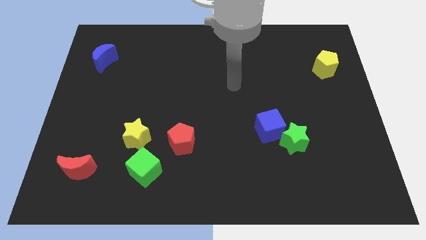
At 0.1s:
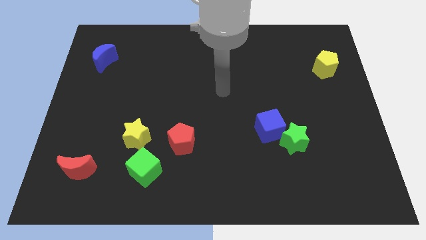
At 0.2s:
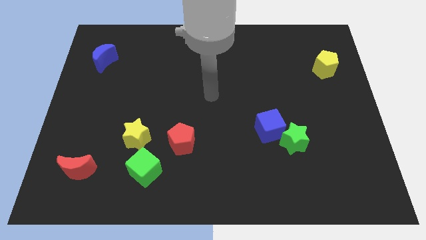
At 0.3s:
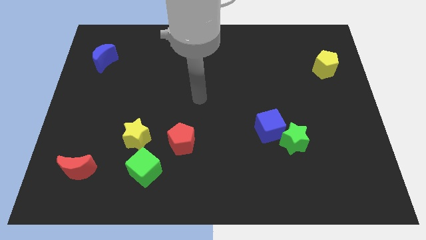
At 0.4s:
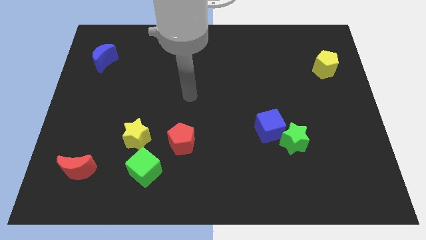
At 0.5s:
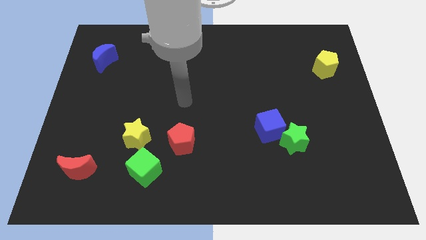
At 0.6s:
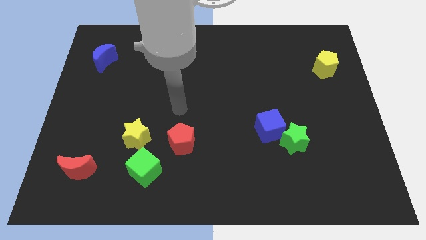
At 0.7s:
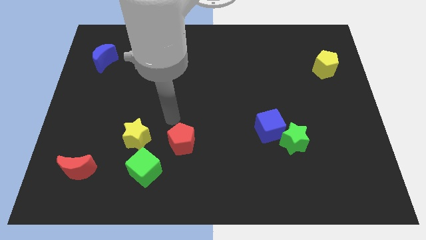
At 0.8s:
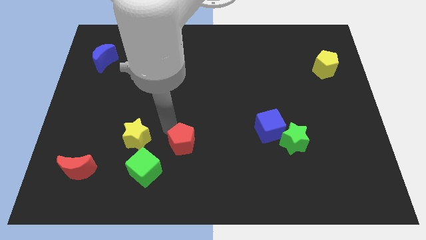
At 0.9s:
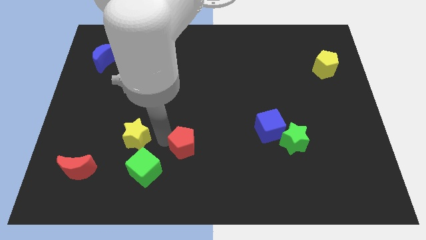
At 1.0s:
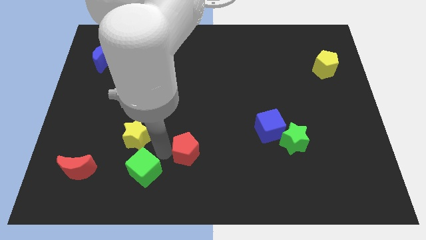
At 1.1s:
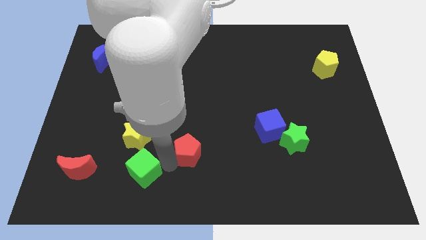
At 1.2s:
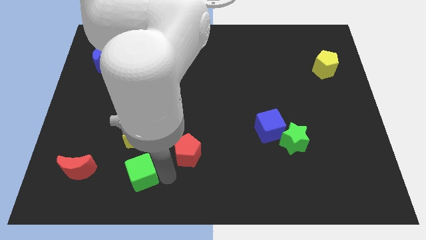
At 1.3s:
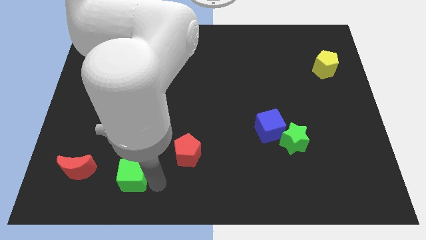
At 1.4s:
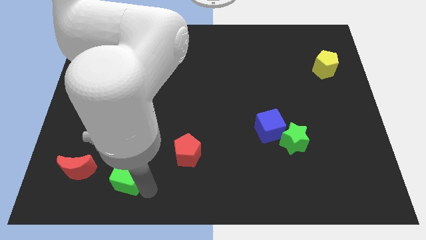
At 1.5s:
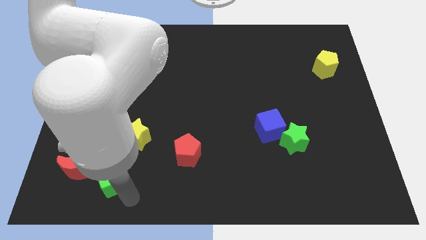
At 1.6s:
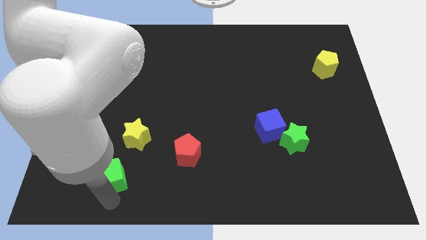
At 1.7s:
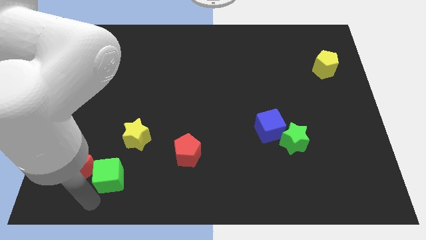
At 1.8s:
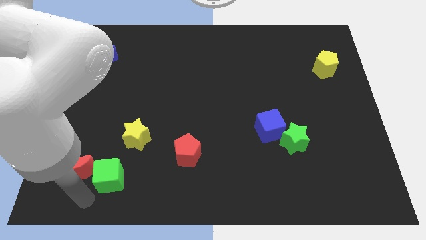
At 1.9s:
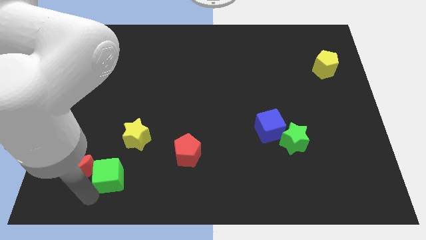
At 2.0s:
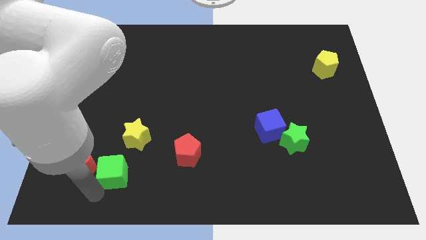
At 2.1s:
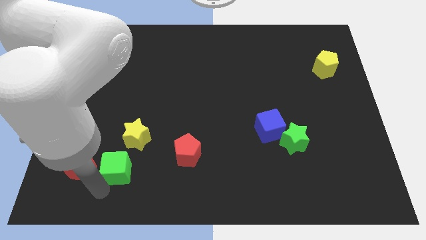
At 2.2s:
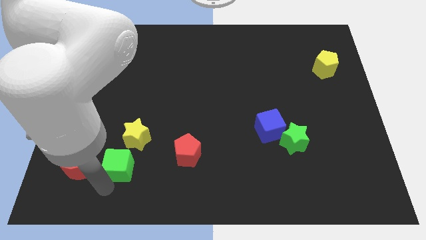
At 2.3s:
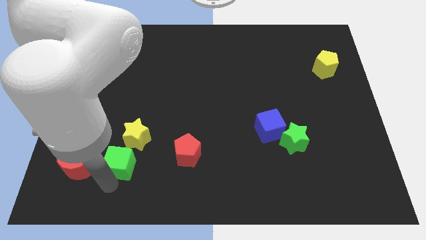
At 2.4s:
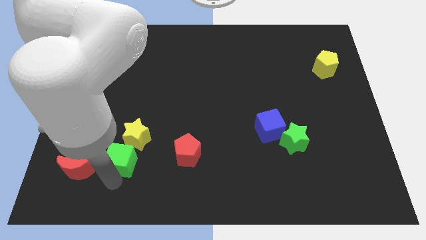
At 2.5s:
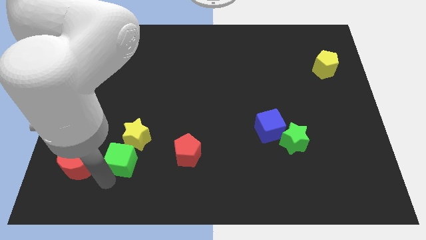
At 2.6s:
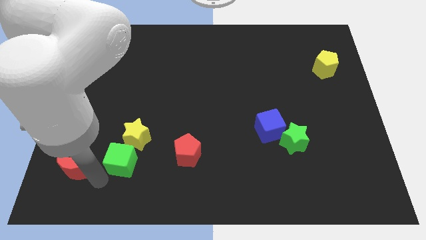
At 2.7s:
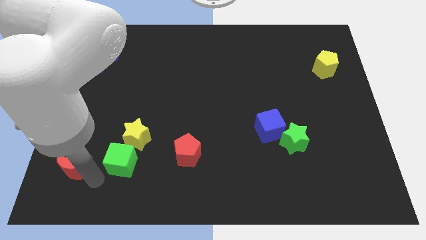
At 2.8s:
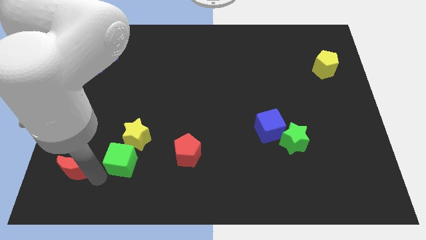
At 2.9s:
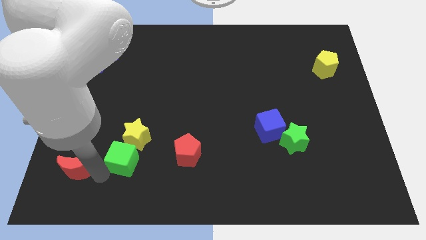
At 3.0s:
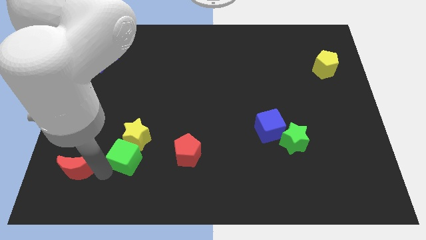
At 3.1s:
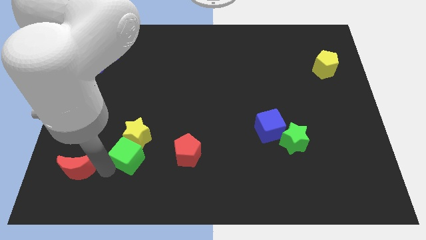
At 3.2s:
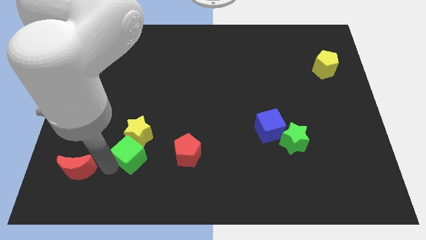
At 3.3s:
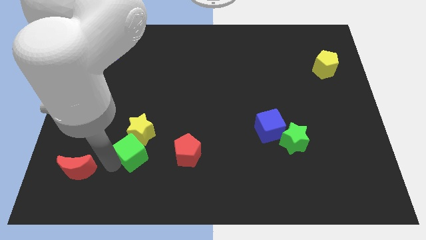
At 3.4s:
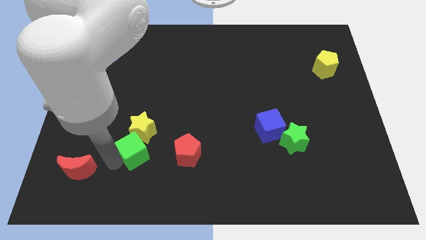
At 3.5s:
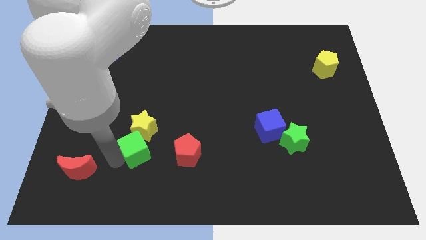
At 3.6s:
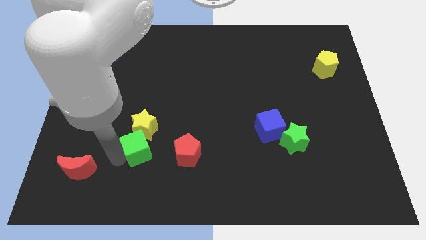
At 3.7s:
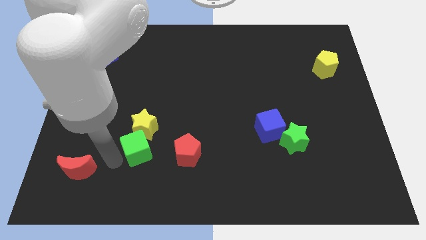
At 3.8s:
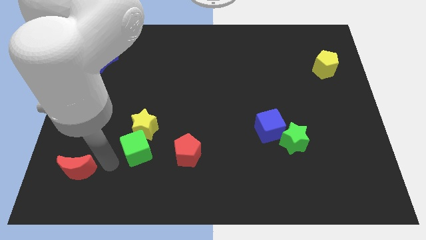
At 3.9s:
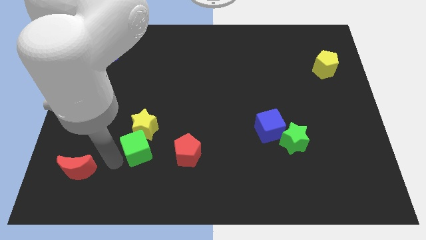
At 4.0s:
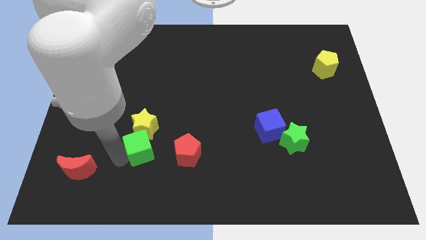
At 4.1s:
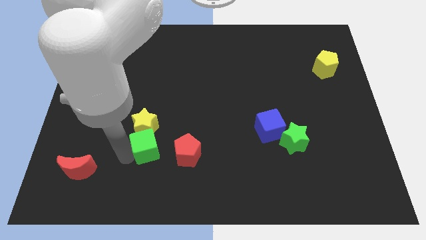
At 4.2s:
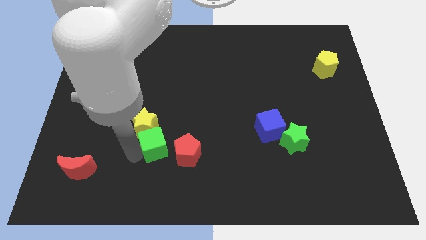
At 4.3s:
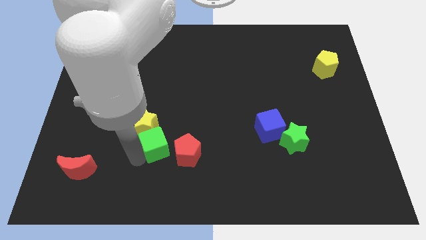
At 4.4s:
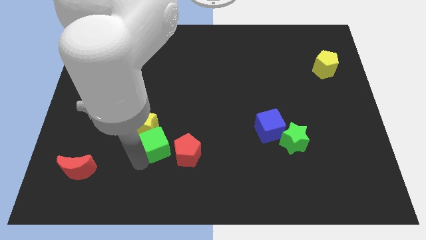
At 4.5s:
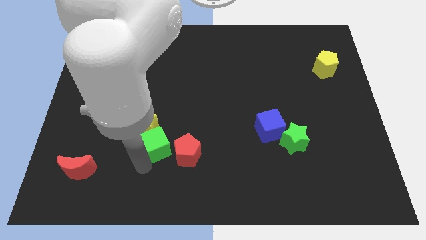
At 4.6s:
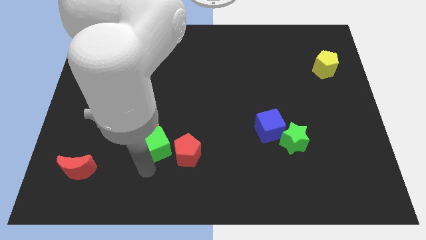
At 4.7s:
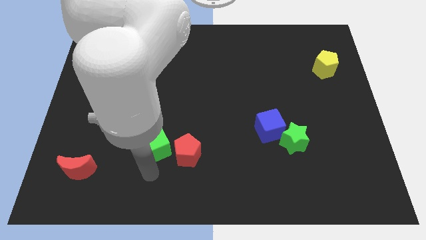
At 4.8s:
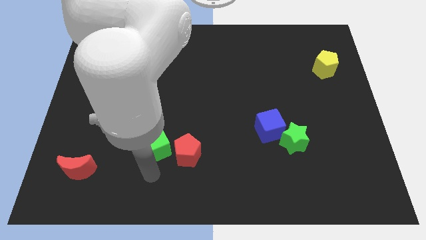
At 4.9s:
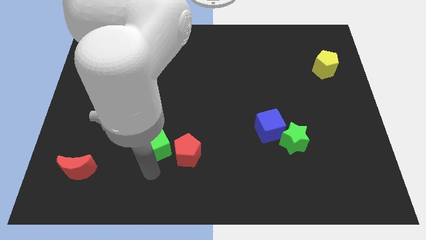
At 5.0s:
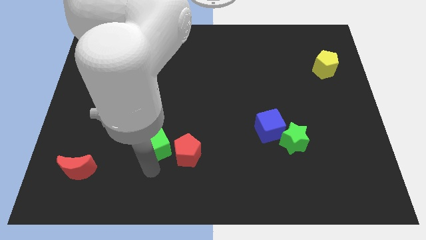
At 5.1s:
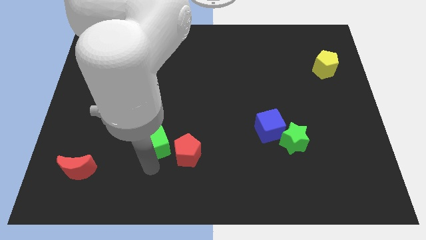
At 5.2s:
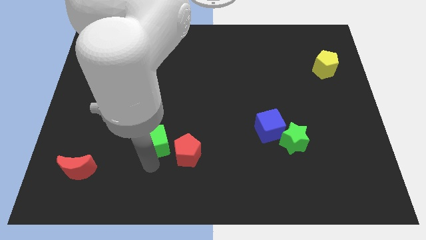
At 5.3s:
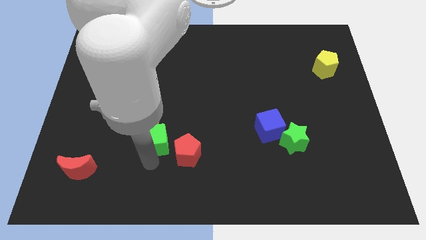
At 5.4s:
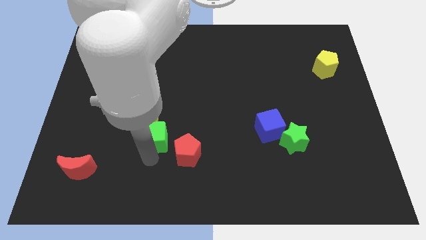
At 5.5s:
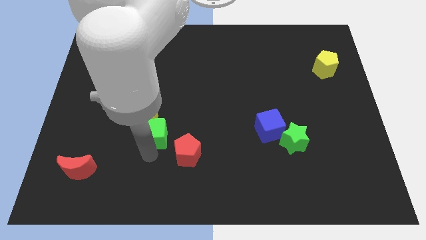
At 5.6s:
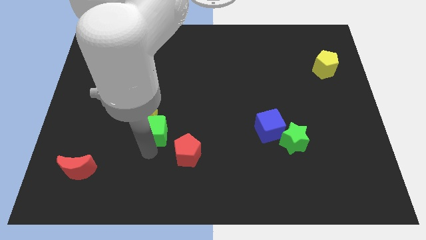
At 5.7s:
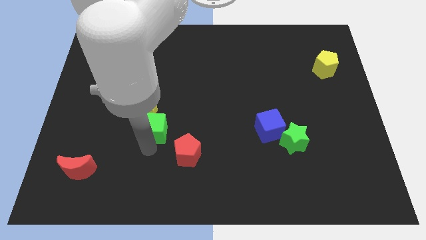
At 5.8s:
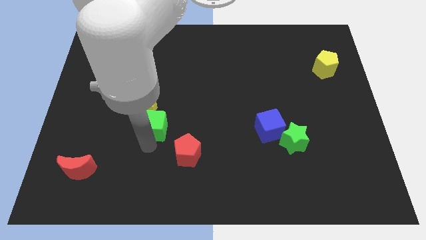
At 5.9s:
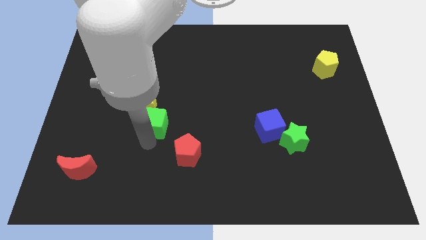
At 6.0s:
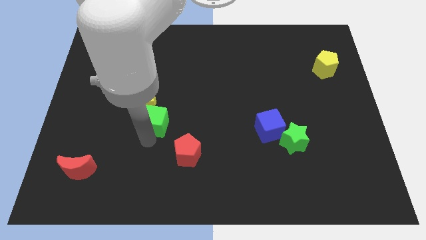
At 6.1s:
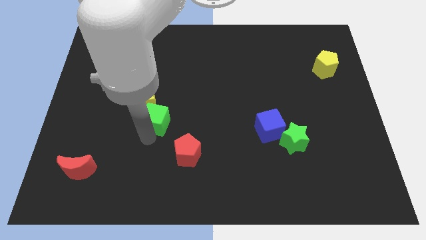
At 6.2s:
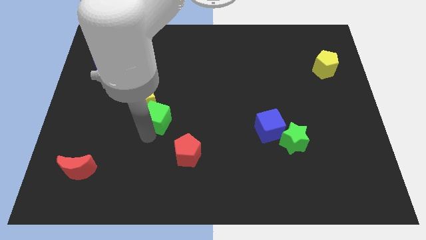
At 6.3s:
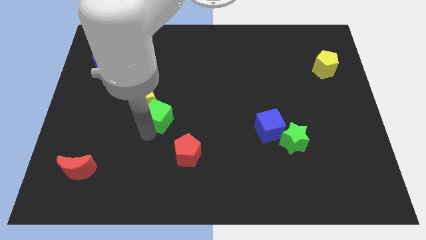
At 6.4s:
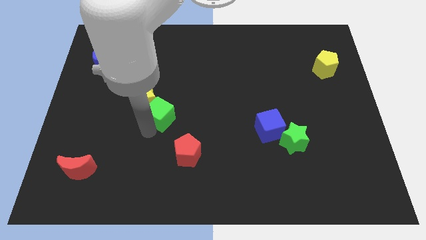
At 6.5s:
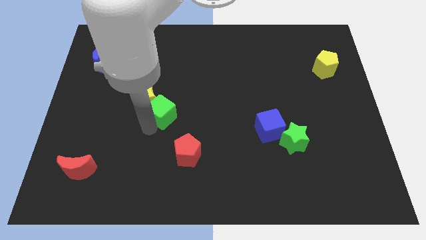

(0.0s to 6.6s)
move the green cube to the center of the board
